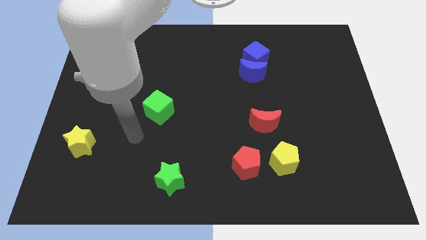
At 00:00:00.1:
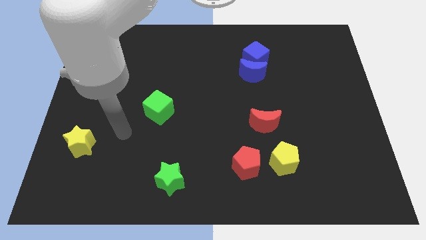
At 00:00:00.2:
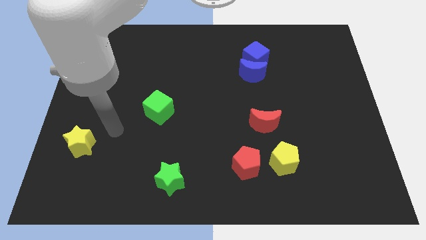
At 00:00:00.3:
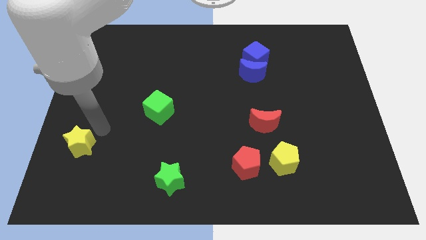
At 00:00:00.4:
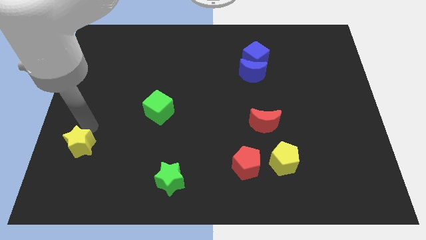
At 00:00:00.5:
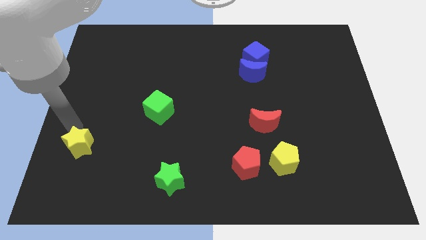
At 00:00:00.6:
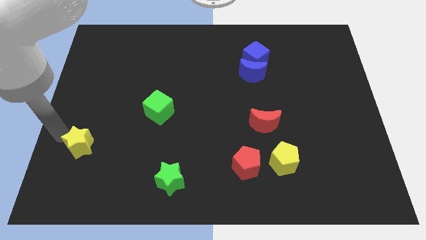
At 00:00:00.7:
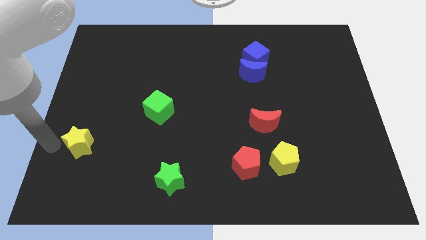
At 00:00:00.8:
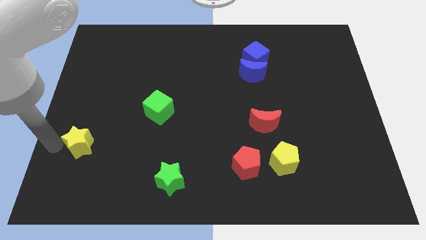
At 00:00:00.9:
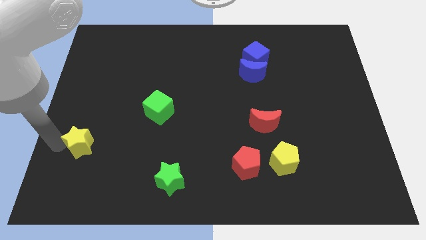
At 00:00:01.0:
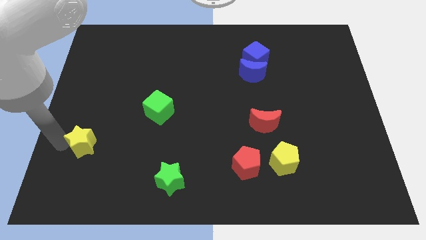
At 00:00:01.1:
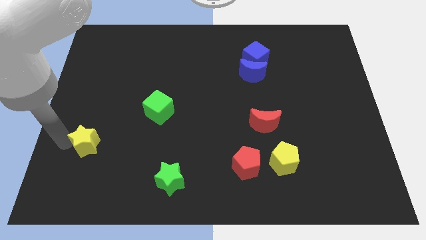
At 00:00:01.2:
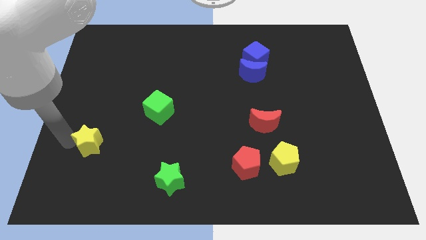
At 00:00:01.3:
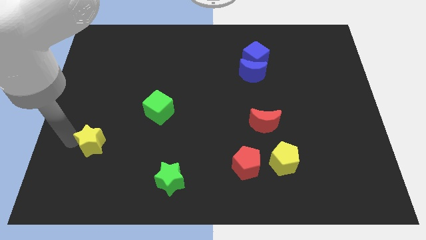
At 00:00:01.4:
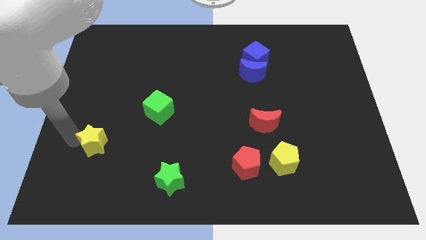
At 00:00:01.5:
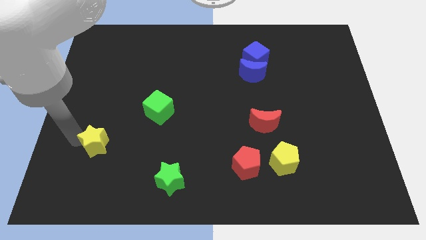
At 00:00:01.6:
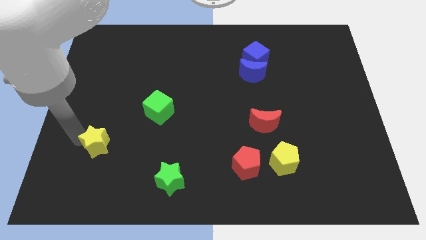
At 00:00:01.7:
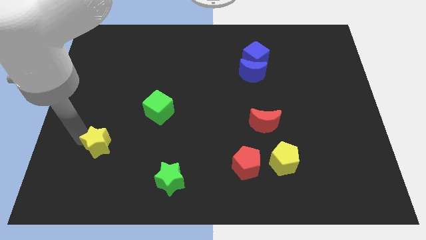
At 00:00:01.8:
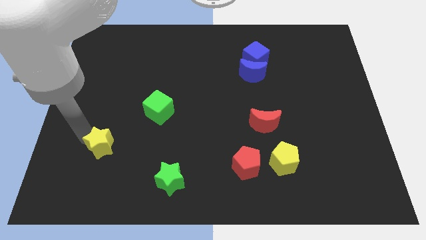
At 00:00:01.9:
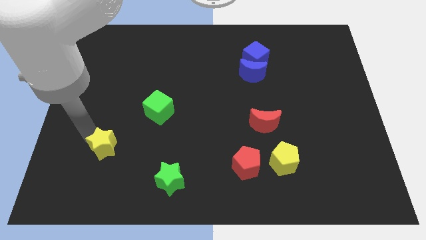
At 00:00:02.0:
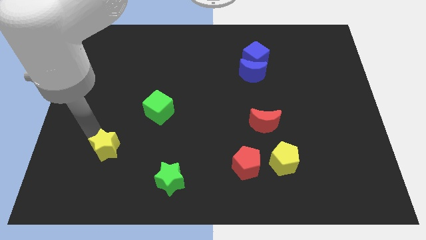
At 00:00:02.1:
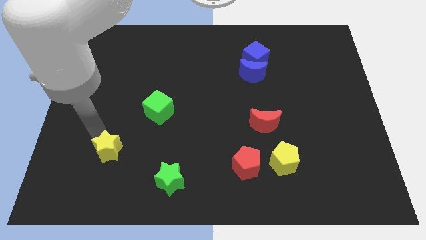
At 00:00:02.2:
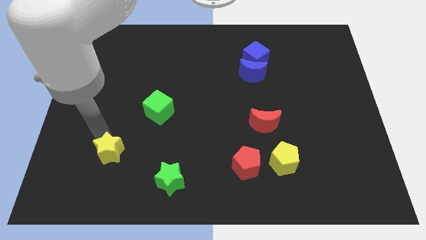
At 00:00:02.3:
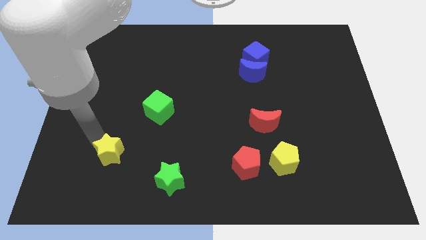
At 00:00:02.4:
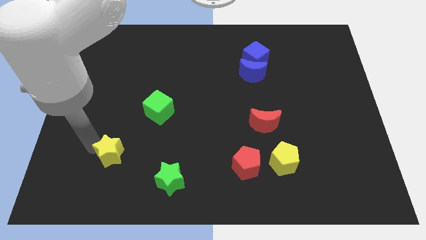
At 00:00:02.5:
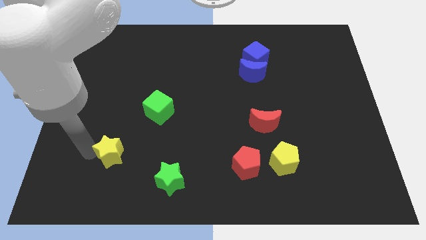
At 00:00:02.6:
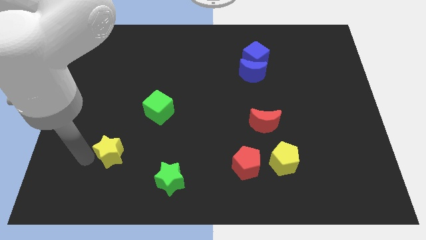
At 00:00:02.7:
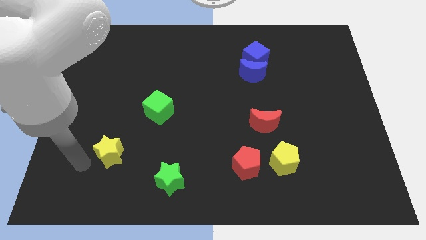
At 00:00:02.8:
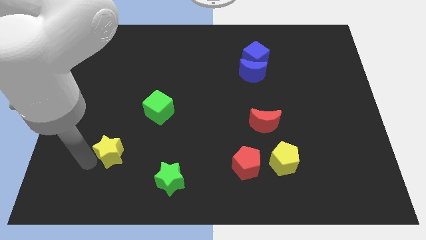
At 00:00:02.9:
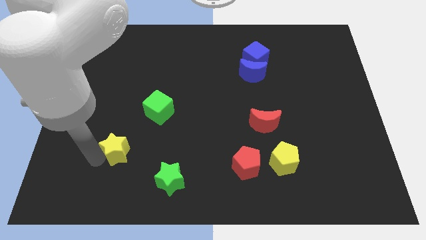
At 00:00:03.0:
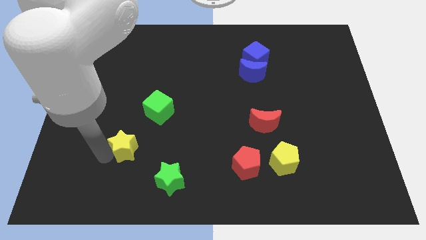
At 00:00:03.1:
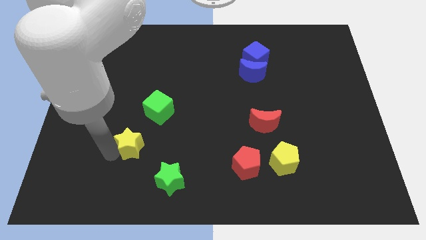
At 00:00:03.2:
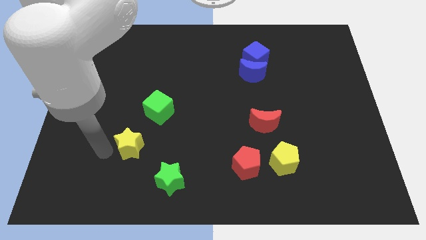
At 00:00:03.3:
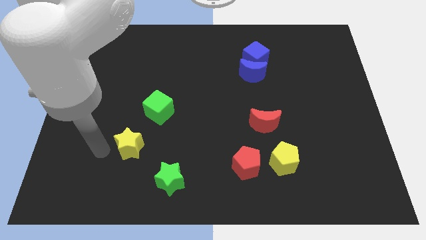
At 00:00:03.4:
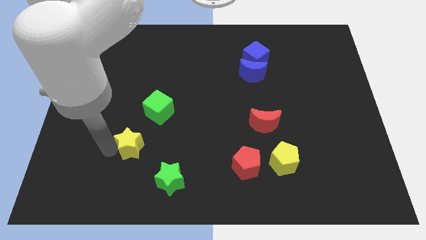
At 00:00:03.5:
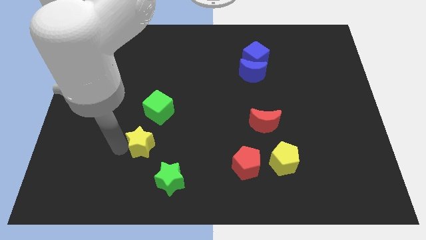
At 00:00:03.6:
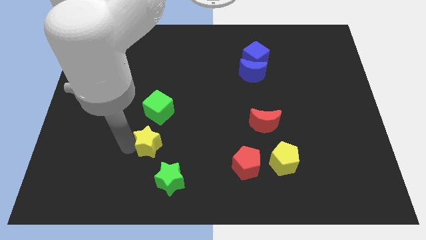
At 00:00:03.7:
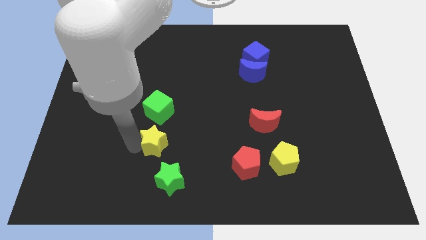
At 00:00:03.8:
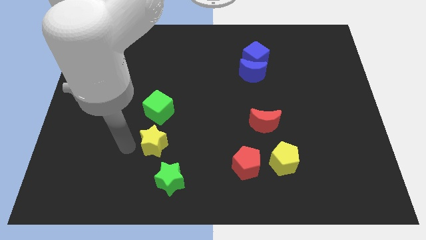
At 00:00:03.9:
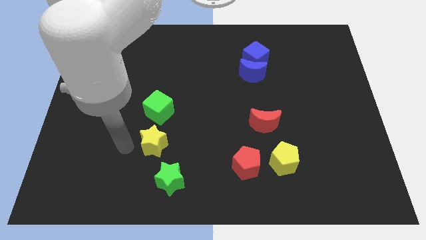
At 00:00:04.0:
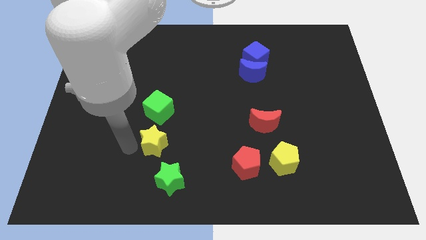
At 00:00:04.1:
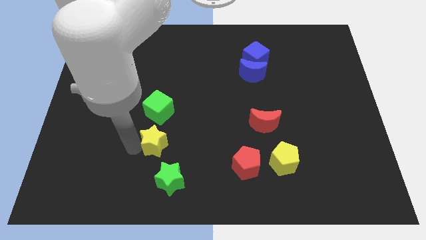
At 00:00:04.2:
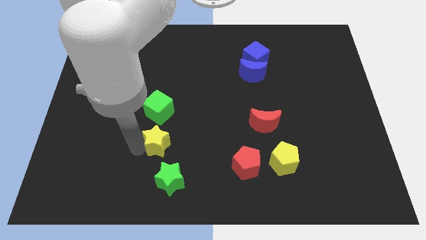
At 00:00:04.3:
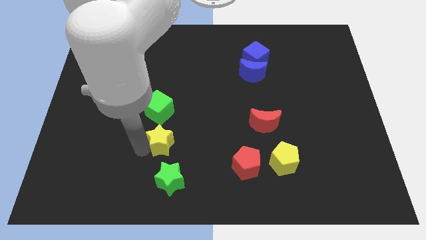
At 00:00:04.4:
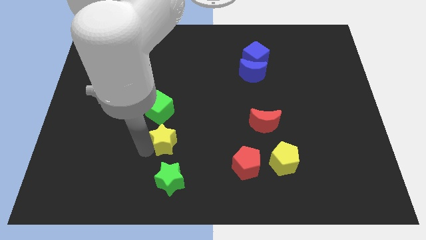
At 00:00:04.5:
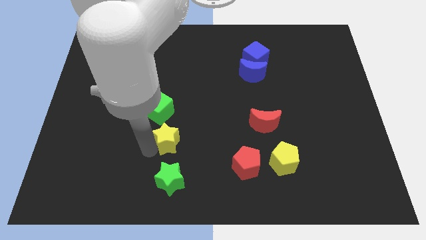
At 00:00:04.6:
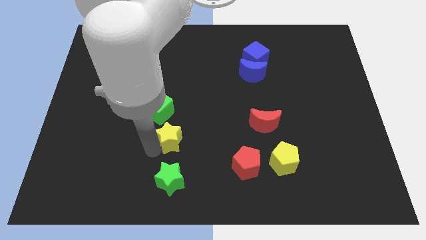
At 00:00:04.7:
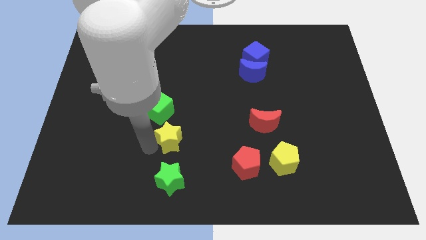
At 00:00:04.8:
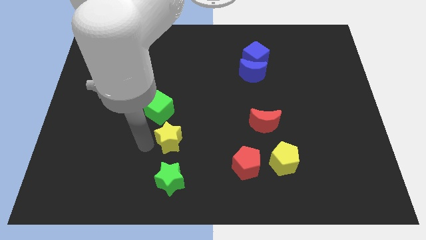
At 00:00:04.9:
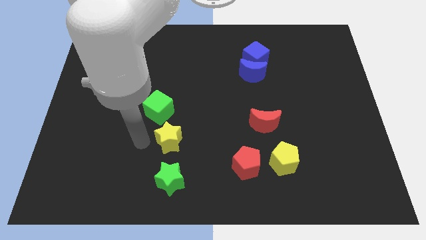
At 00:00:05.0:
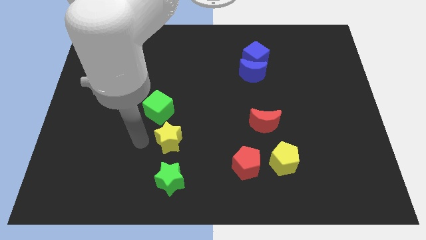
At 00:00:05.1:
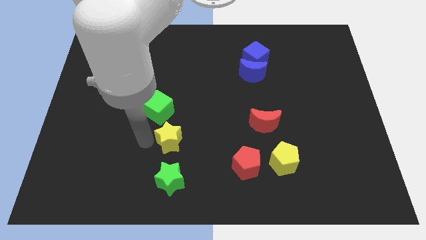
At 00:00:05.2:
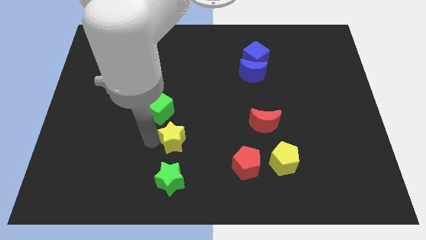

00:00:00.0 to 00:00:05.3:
push the yellow star right

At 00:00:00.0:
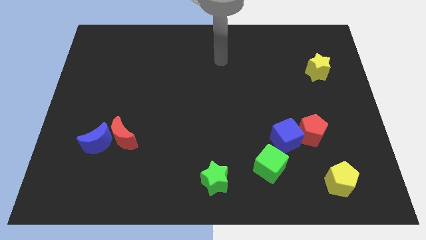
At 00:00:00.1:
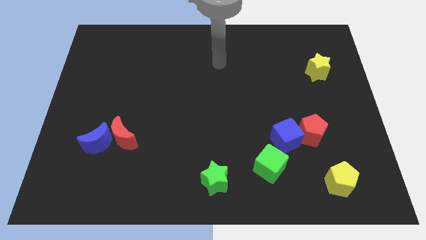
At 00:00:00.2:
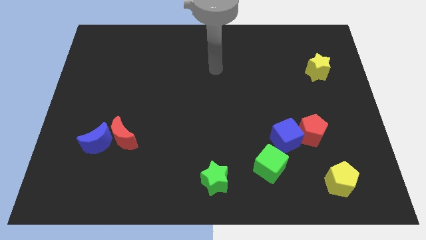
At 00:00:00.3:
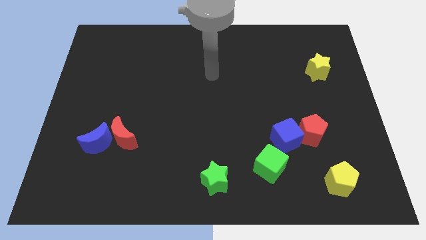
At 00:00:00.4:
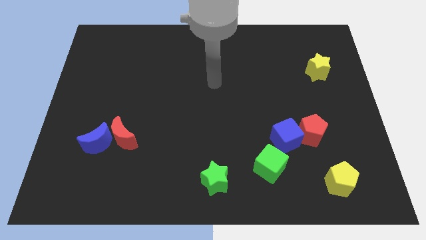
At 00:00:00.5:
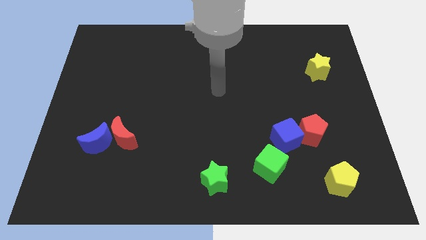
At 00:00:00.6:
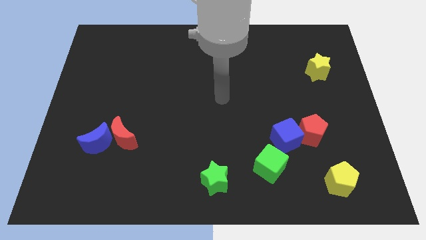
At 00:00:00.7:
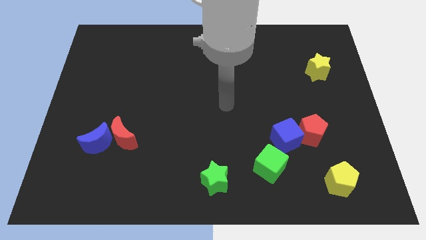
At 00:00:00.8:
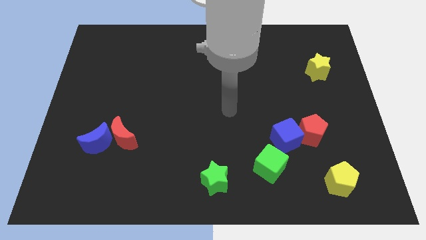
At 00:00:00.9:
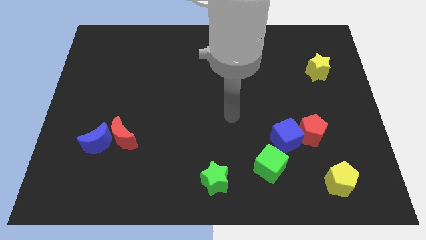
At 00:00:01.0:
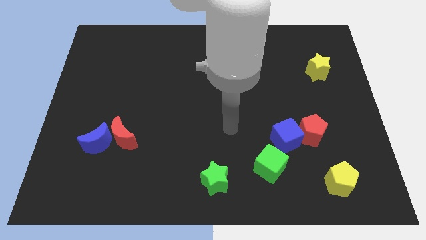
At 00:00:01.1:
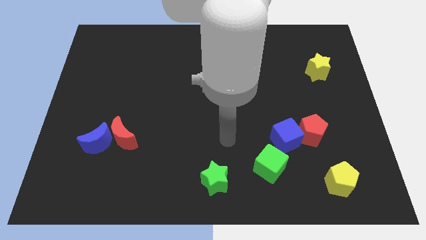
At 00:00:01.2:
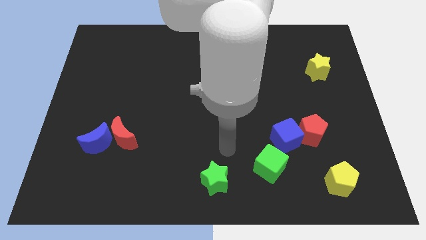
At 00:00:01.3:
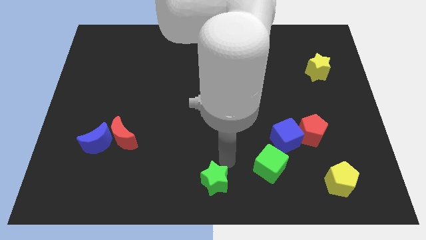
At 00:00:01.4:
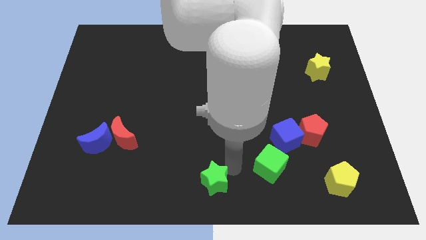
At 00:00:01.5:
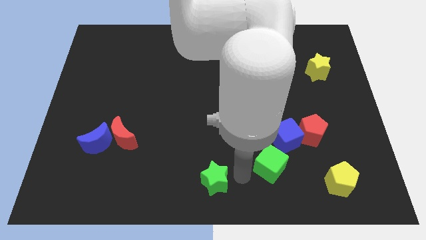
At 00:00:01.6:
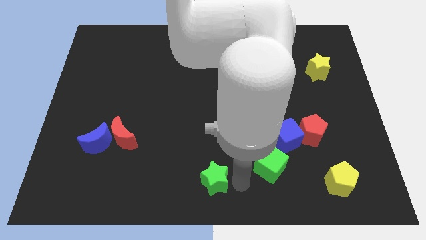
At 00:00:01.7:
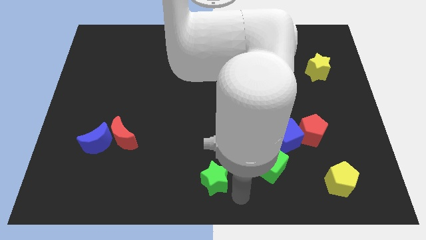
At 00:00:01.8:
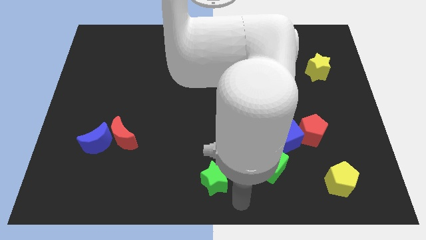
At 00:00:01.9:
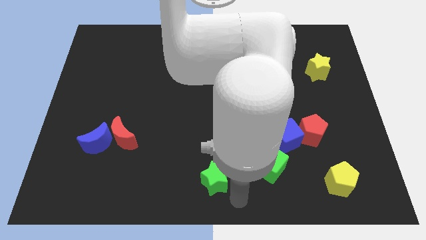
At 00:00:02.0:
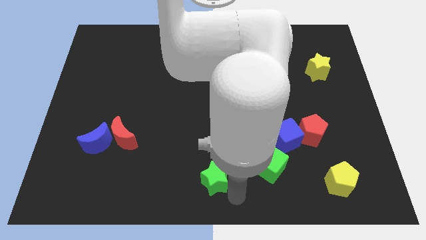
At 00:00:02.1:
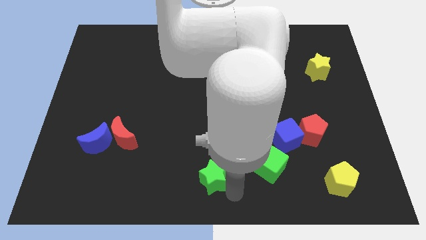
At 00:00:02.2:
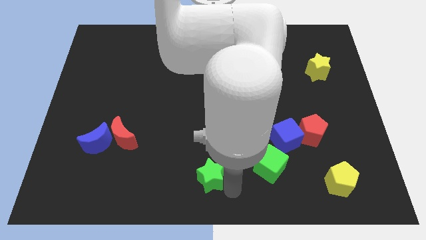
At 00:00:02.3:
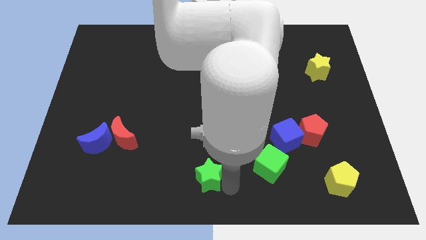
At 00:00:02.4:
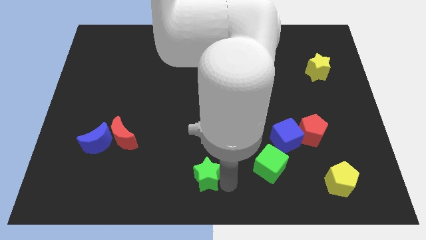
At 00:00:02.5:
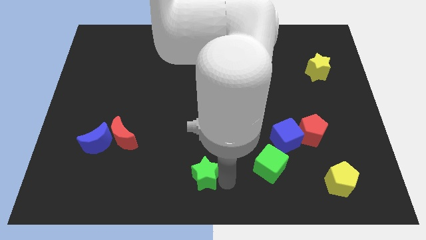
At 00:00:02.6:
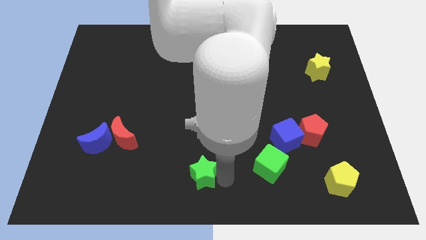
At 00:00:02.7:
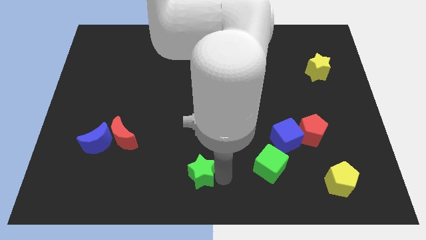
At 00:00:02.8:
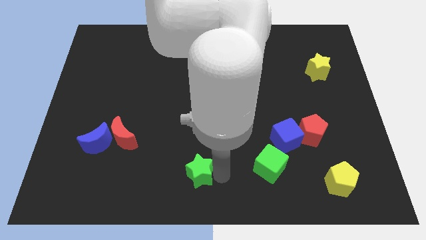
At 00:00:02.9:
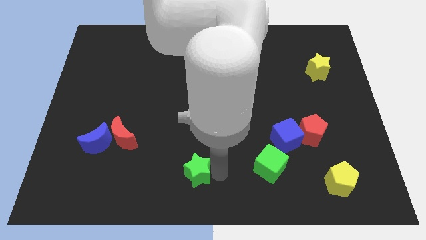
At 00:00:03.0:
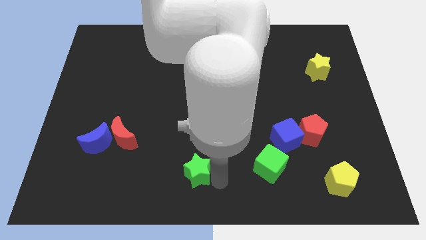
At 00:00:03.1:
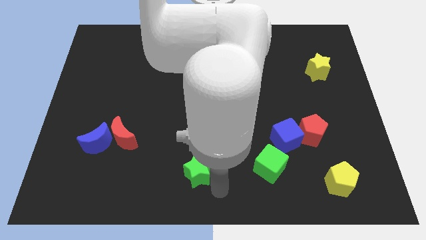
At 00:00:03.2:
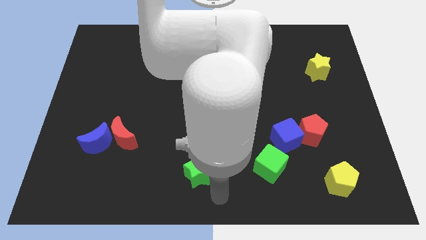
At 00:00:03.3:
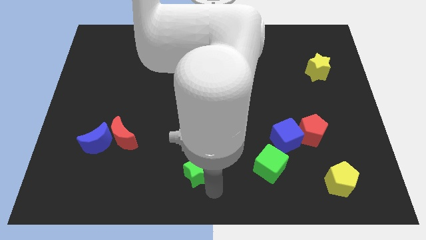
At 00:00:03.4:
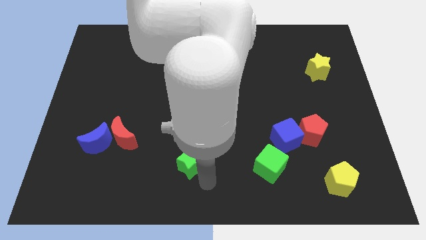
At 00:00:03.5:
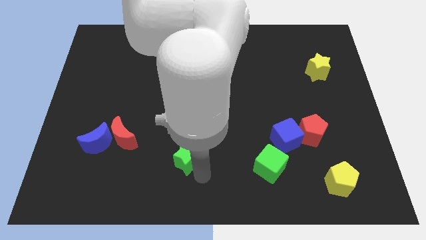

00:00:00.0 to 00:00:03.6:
slightly slide the green star upwards and to the left
